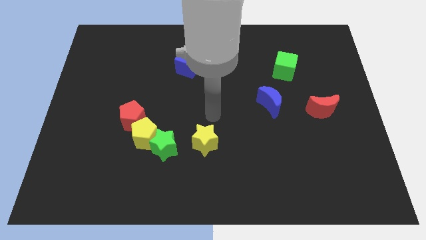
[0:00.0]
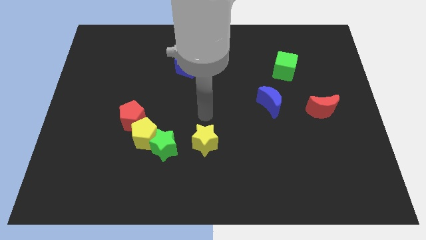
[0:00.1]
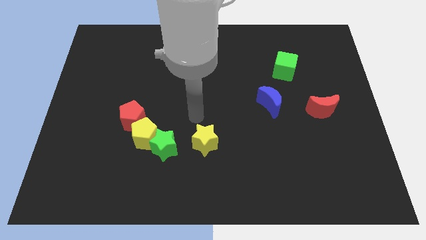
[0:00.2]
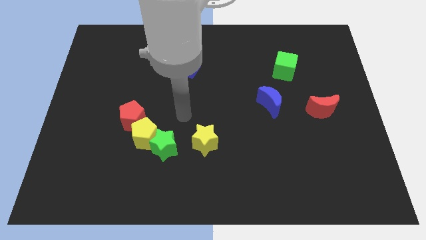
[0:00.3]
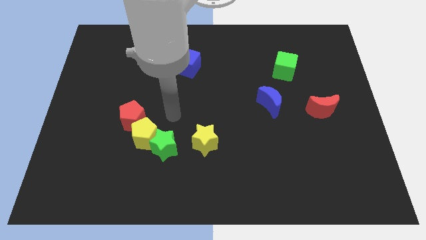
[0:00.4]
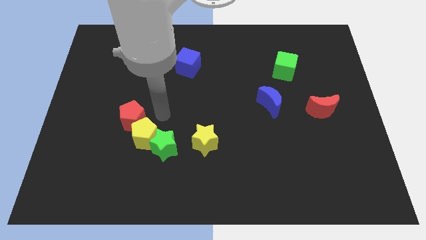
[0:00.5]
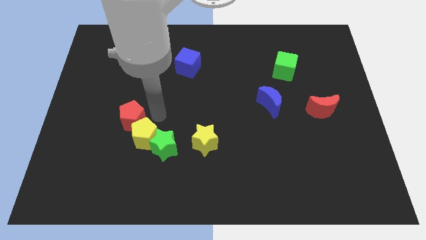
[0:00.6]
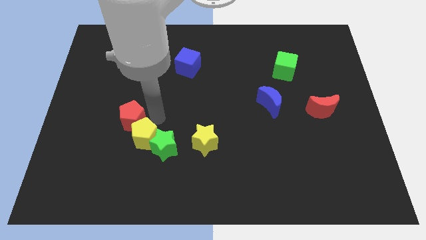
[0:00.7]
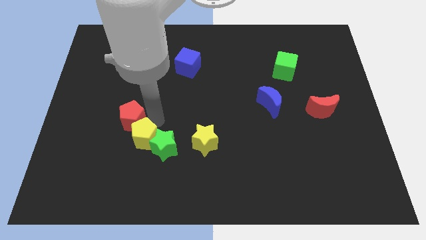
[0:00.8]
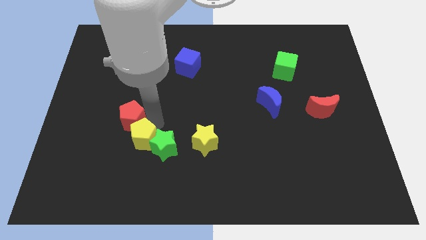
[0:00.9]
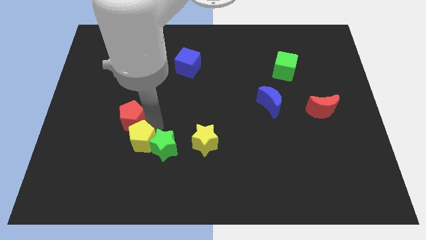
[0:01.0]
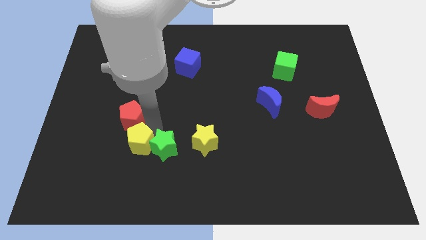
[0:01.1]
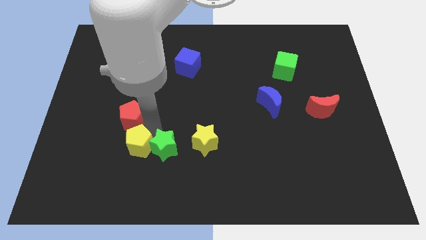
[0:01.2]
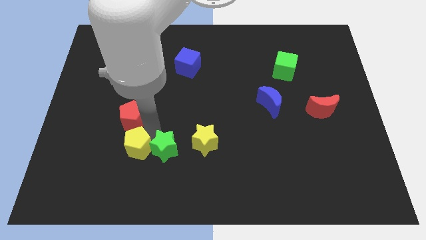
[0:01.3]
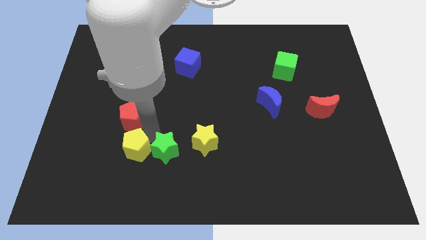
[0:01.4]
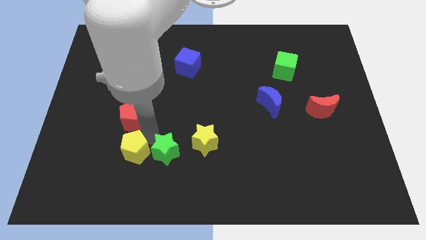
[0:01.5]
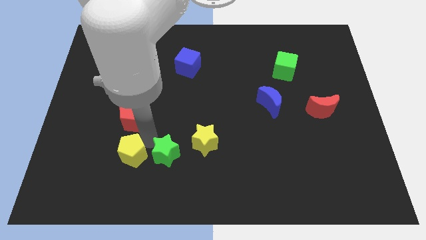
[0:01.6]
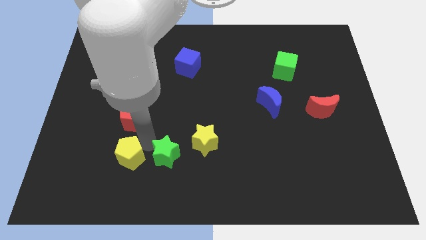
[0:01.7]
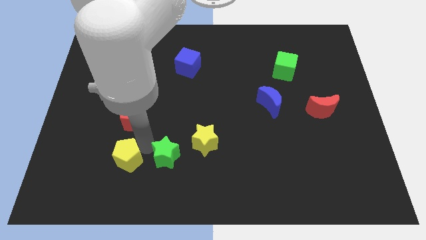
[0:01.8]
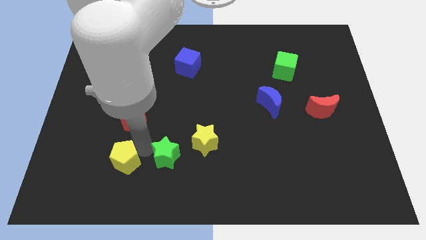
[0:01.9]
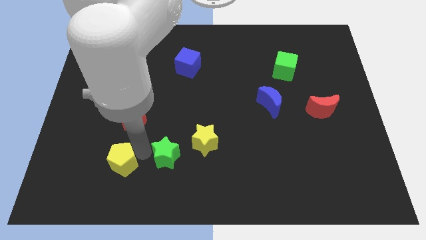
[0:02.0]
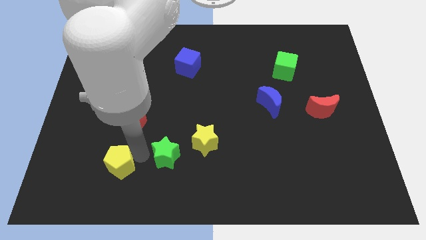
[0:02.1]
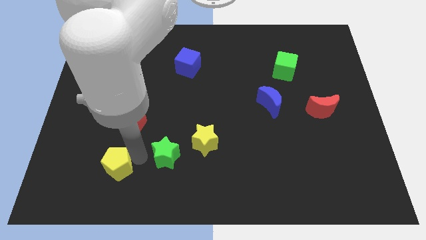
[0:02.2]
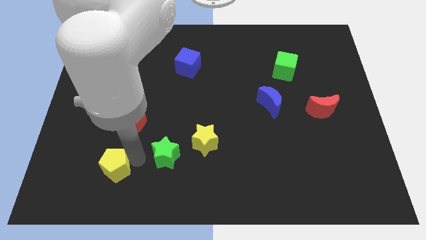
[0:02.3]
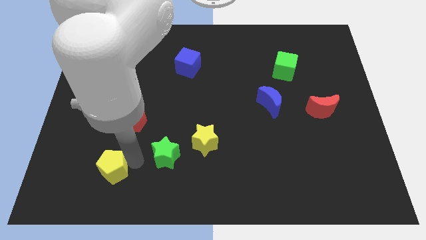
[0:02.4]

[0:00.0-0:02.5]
pull the yellow pentagon apart from the green star and red pentagon

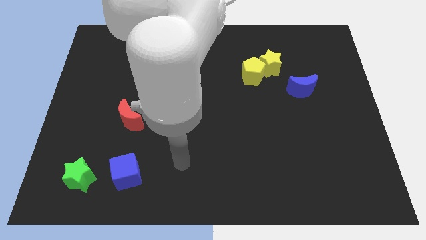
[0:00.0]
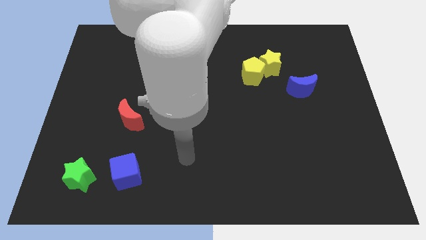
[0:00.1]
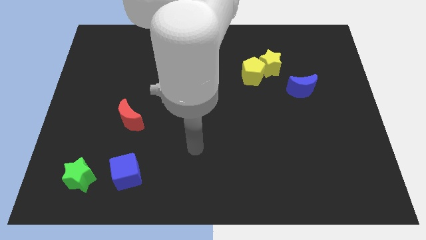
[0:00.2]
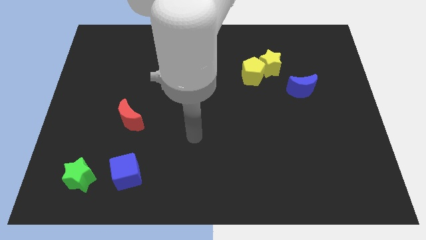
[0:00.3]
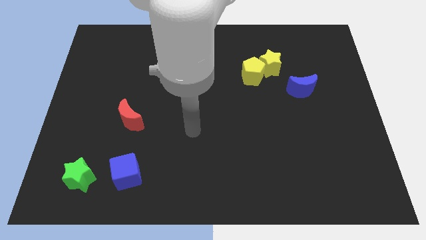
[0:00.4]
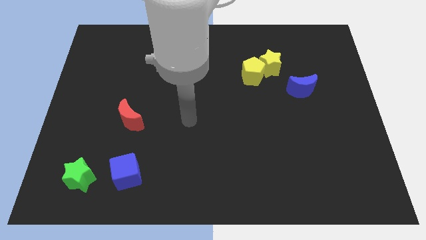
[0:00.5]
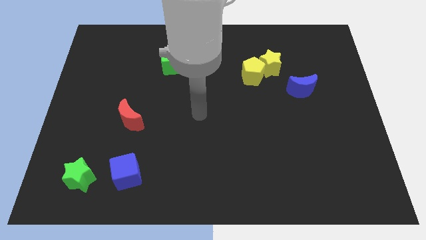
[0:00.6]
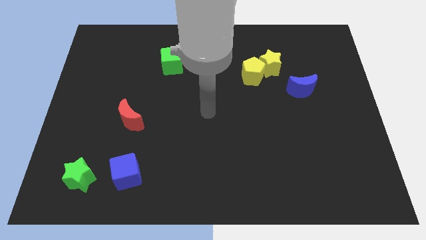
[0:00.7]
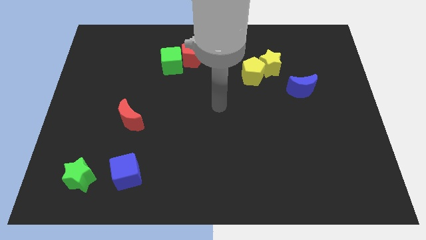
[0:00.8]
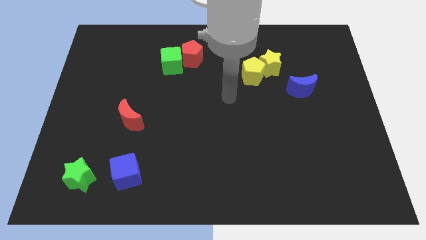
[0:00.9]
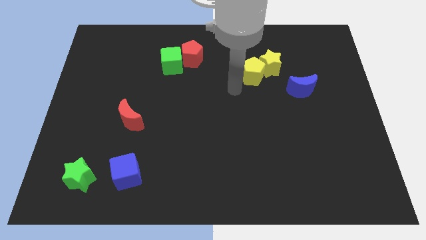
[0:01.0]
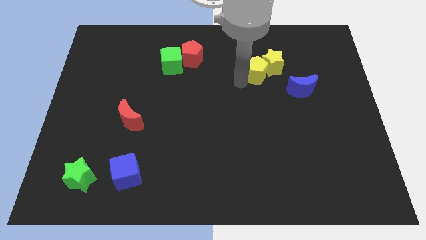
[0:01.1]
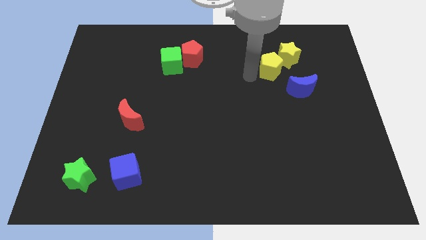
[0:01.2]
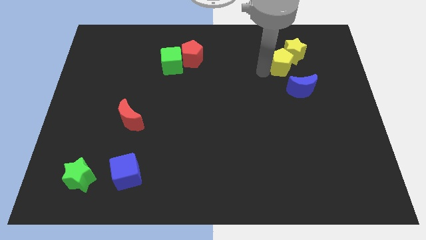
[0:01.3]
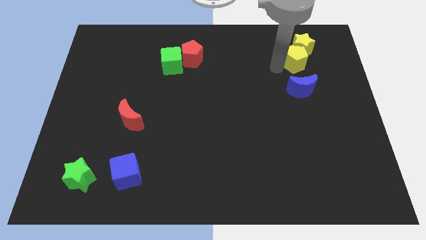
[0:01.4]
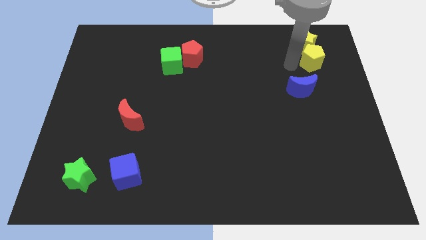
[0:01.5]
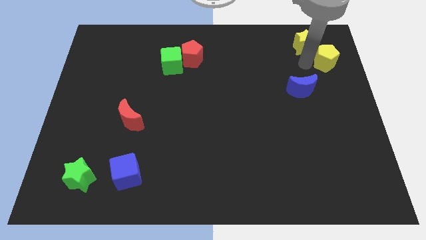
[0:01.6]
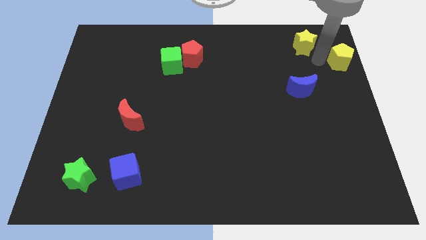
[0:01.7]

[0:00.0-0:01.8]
separate the yellow star from the yellow pentagon

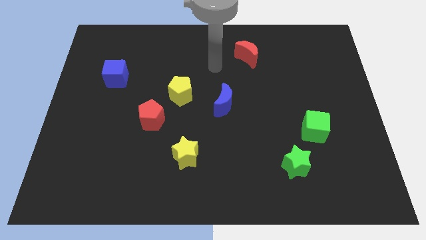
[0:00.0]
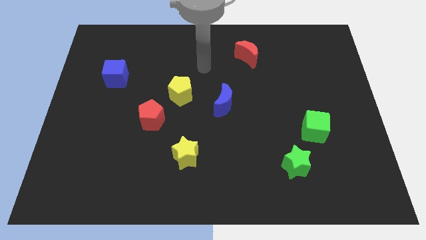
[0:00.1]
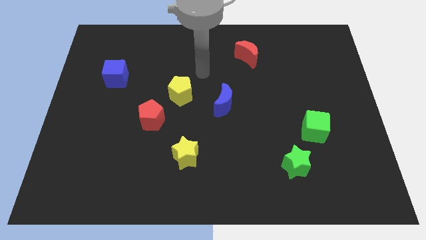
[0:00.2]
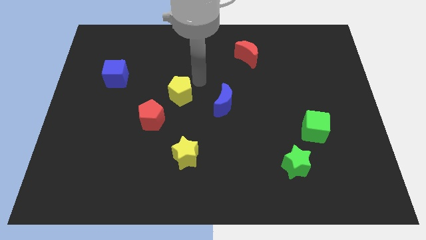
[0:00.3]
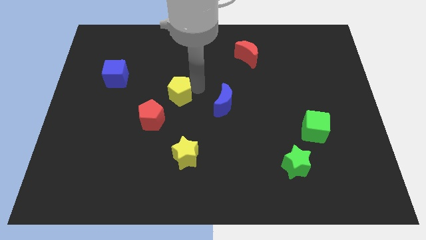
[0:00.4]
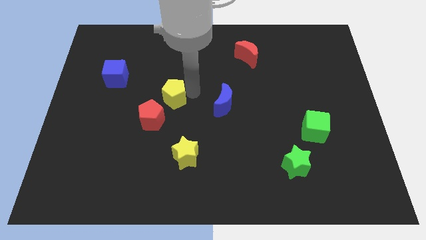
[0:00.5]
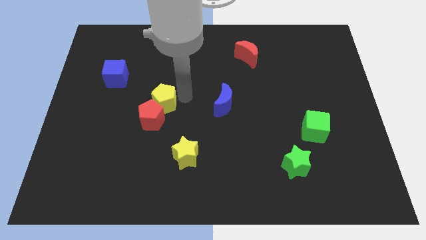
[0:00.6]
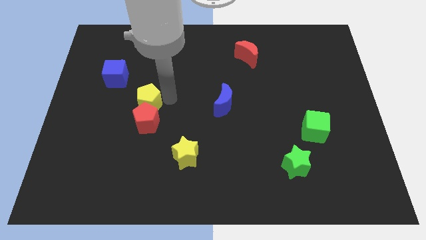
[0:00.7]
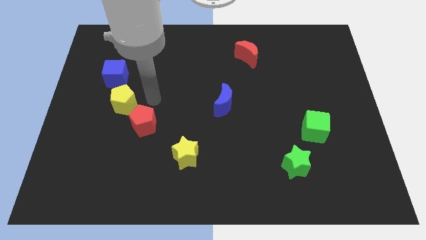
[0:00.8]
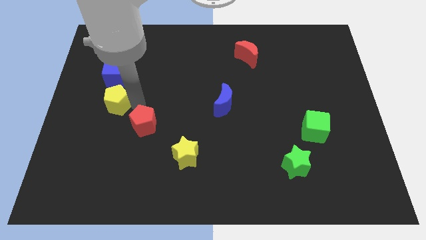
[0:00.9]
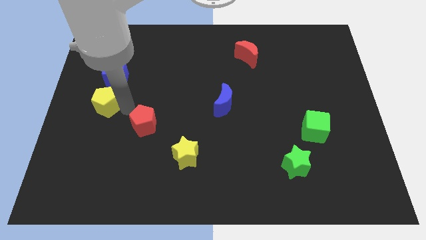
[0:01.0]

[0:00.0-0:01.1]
move the red pentagon away from the yellow pentagon

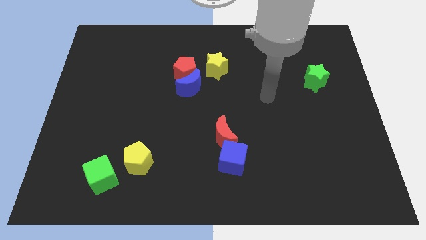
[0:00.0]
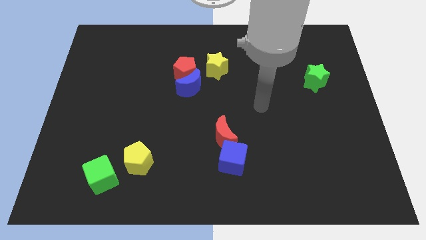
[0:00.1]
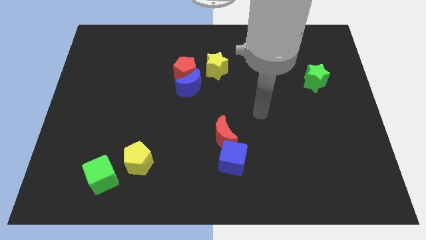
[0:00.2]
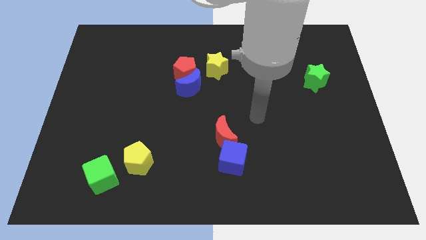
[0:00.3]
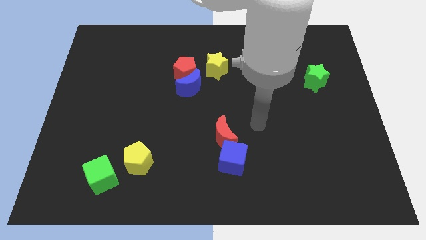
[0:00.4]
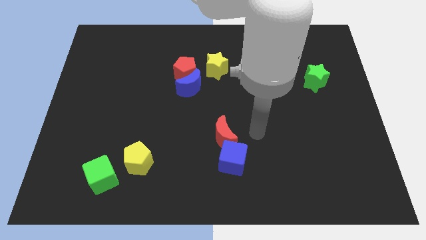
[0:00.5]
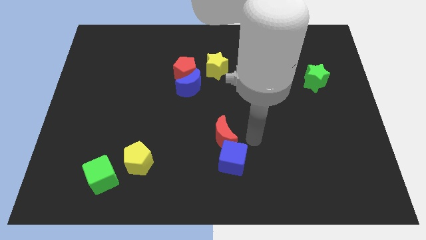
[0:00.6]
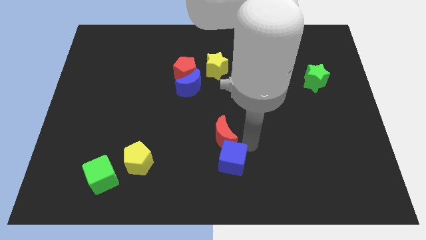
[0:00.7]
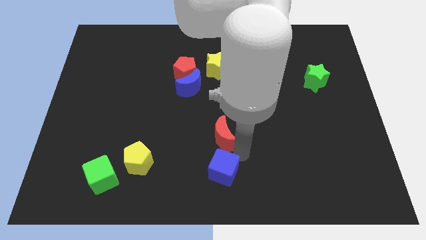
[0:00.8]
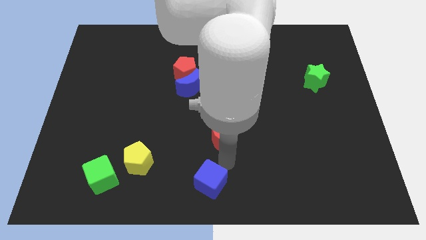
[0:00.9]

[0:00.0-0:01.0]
separate the red moon from the blue cube

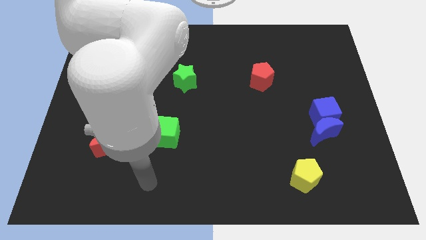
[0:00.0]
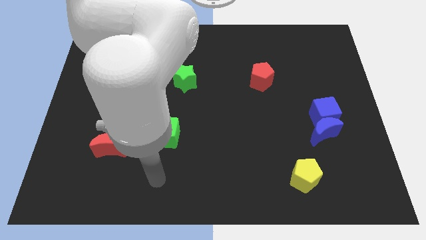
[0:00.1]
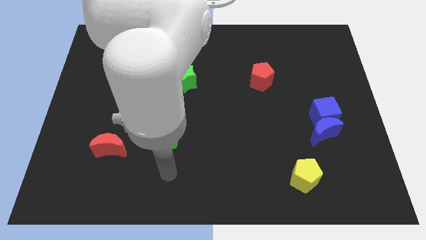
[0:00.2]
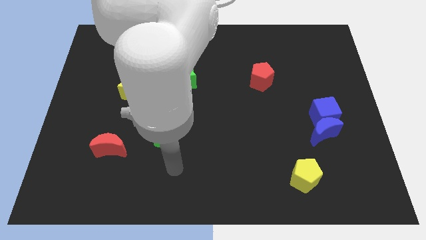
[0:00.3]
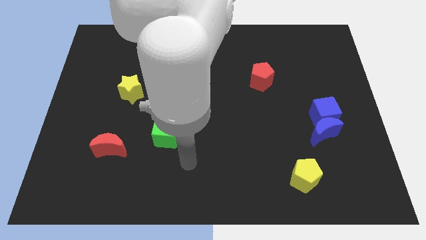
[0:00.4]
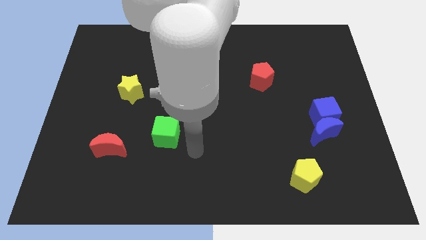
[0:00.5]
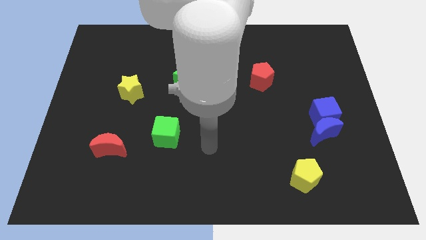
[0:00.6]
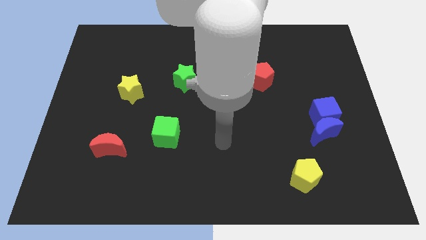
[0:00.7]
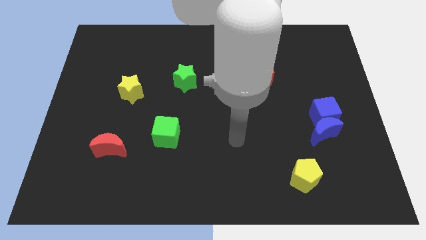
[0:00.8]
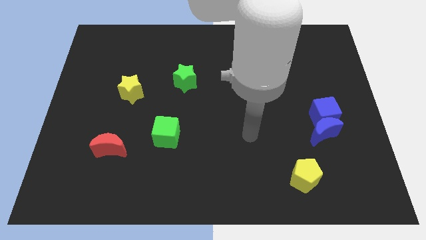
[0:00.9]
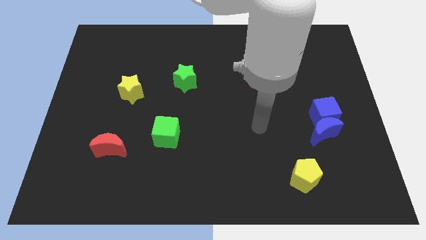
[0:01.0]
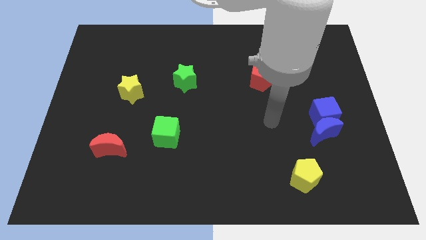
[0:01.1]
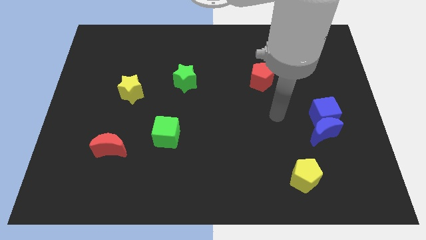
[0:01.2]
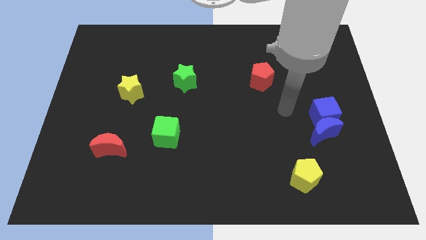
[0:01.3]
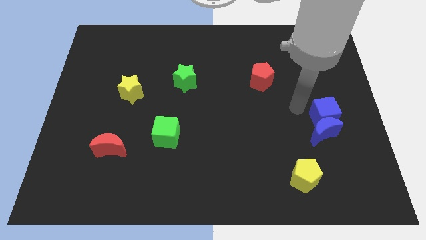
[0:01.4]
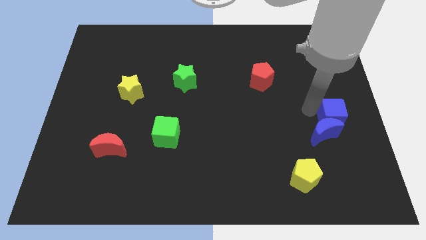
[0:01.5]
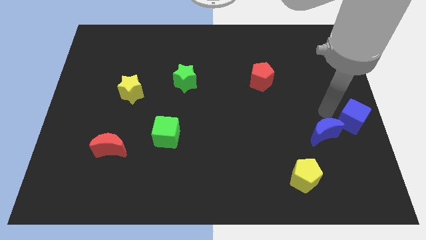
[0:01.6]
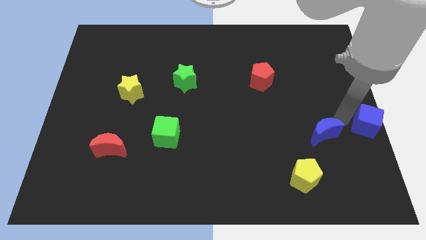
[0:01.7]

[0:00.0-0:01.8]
move the blue moon away from the blue cube

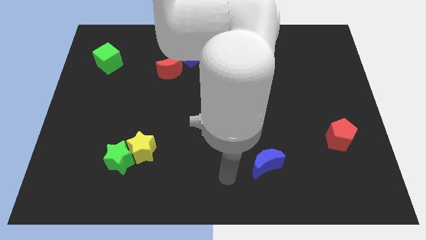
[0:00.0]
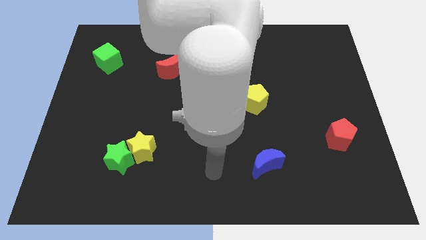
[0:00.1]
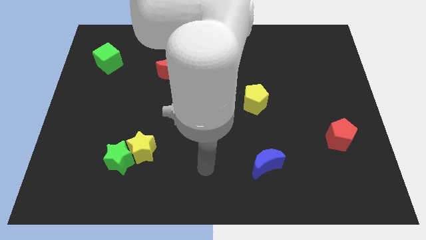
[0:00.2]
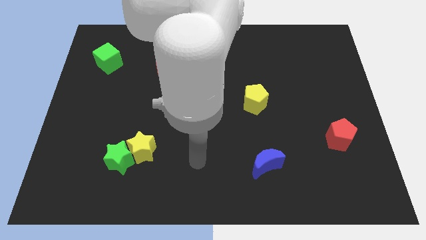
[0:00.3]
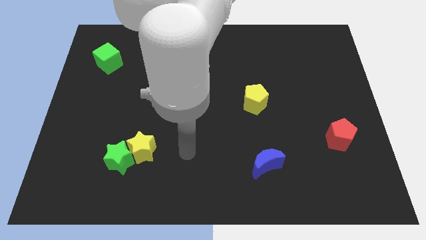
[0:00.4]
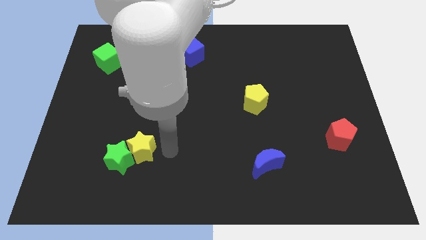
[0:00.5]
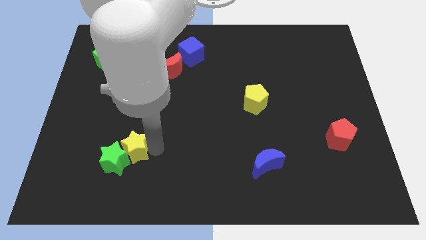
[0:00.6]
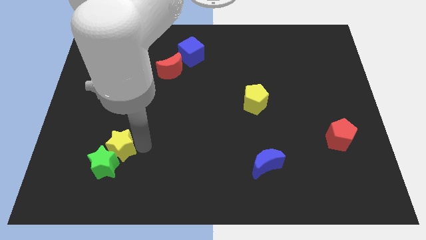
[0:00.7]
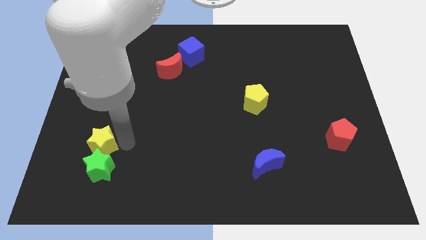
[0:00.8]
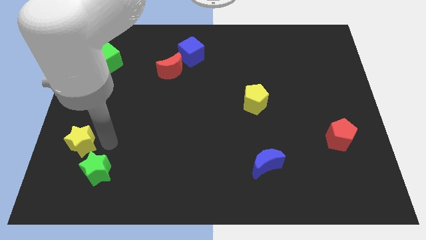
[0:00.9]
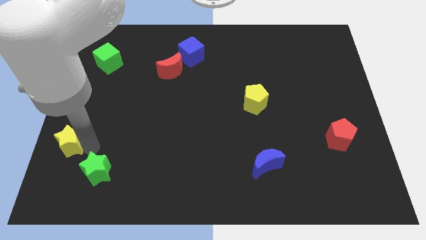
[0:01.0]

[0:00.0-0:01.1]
pull the green star apart from the yellow star
